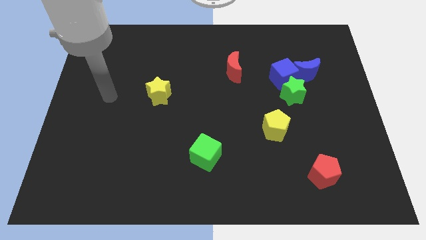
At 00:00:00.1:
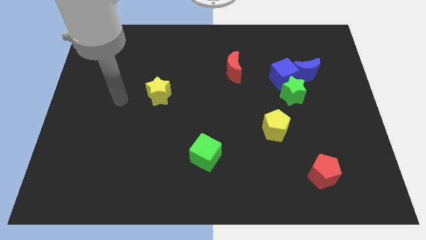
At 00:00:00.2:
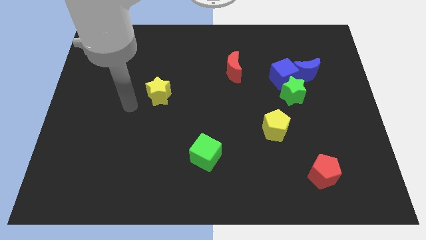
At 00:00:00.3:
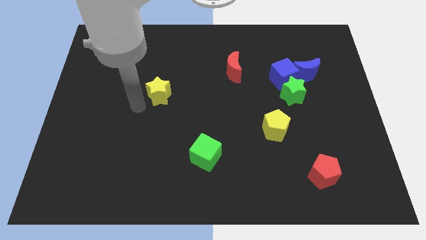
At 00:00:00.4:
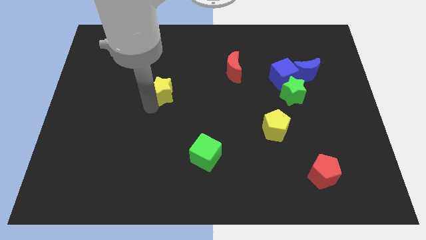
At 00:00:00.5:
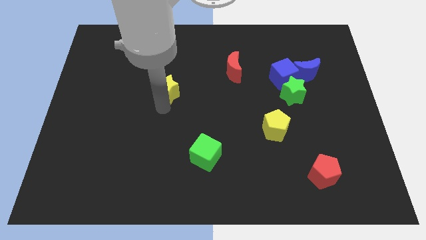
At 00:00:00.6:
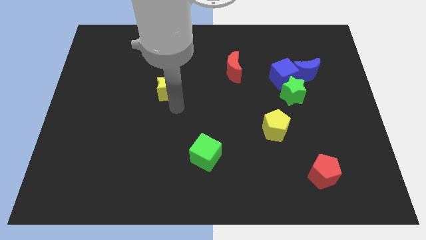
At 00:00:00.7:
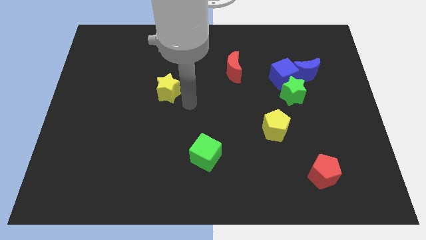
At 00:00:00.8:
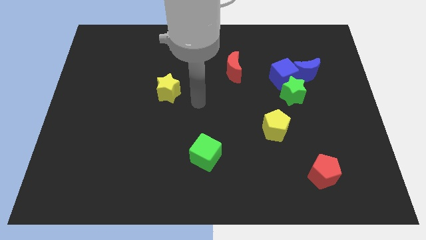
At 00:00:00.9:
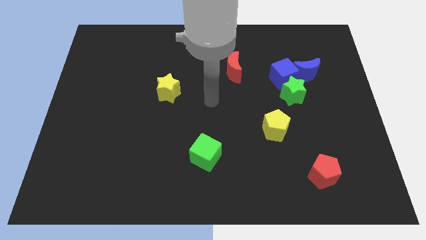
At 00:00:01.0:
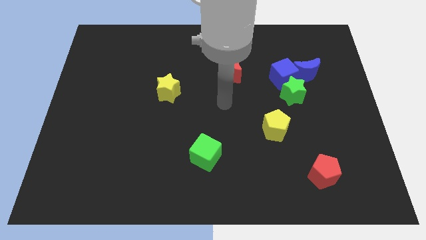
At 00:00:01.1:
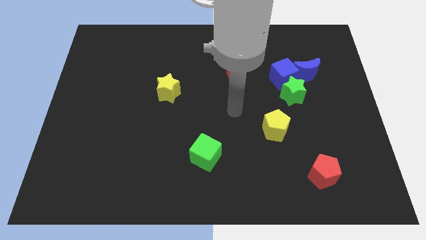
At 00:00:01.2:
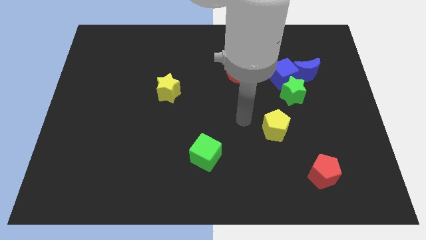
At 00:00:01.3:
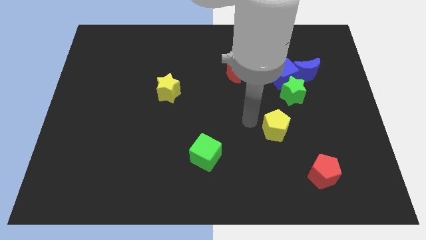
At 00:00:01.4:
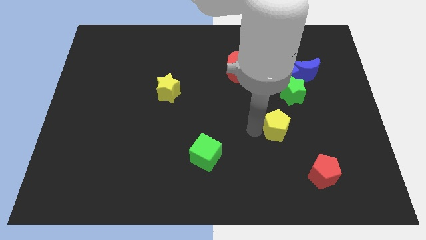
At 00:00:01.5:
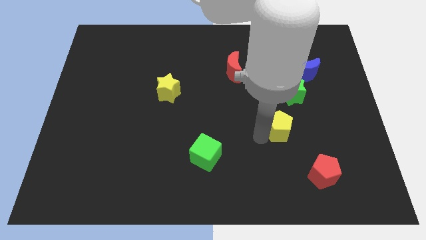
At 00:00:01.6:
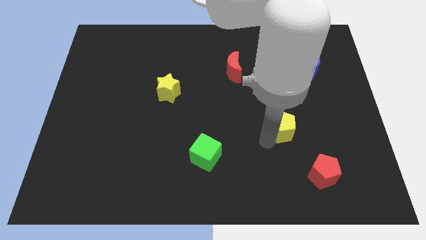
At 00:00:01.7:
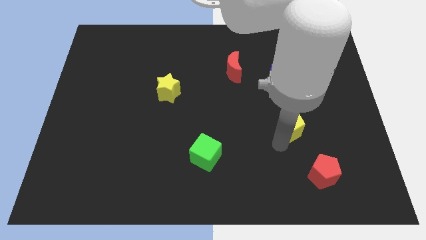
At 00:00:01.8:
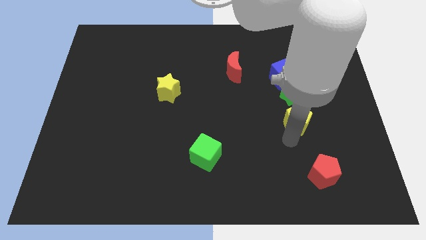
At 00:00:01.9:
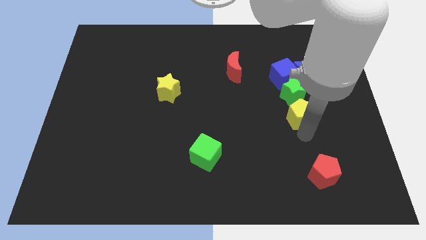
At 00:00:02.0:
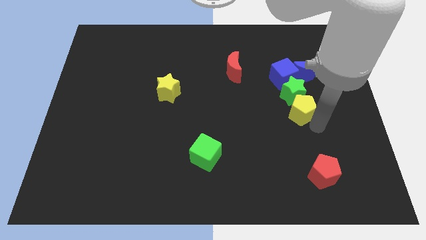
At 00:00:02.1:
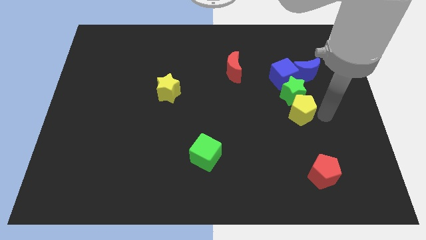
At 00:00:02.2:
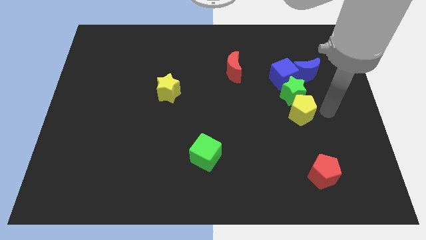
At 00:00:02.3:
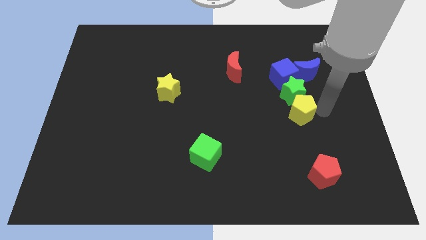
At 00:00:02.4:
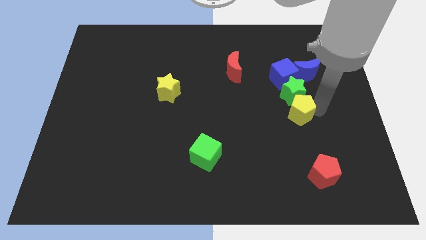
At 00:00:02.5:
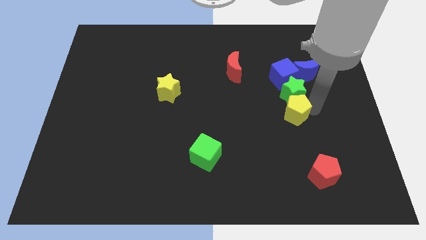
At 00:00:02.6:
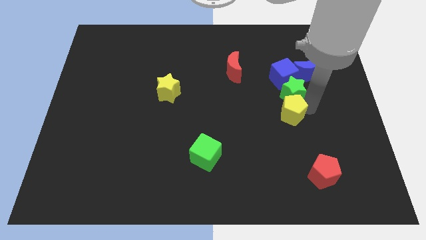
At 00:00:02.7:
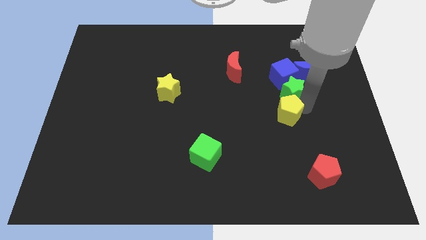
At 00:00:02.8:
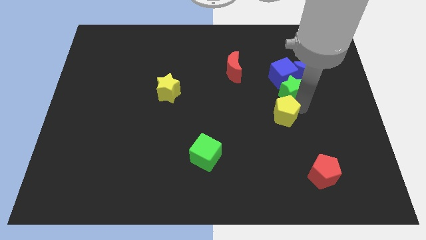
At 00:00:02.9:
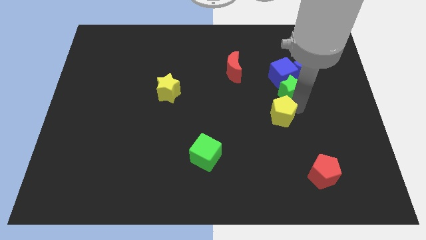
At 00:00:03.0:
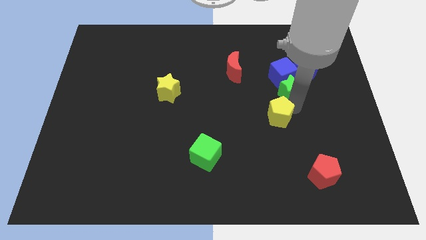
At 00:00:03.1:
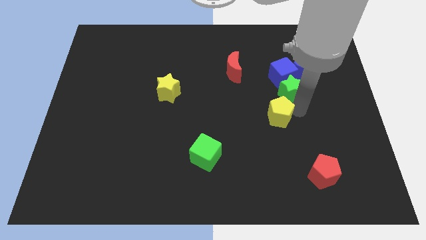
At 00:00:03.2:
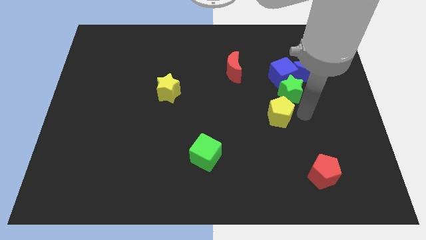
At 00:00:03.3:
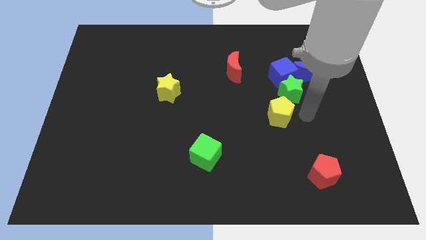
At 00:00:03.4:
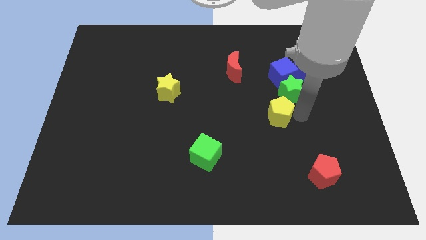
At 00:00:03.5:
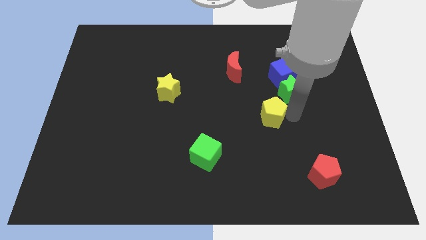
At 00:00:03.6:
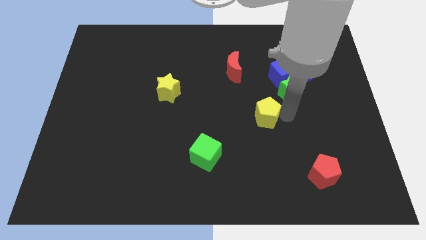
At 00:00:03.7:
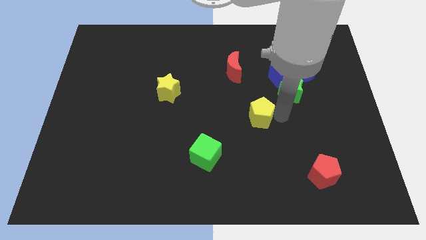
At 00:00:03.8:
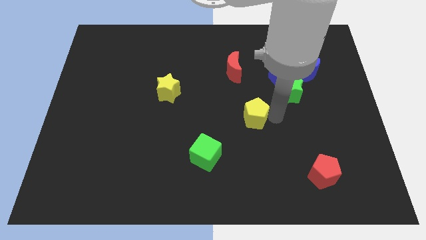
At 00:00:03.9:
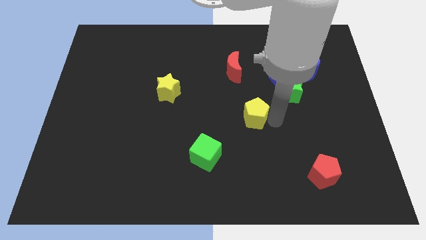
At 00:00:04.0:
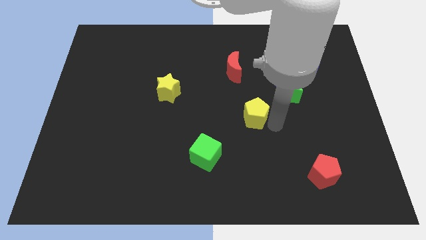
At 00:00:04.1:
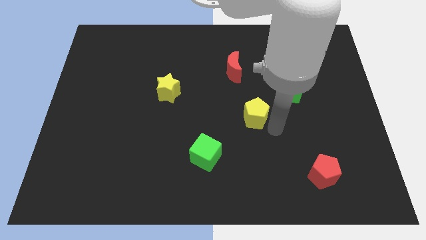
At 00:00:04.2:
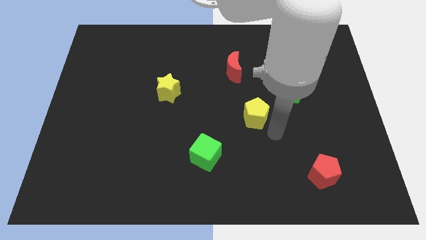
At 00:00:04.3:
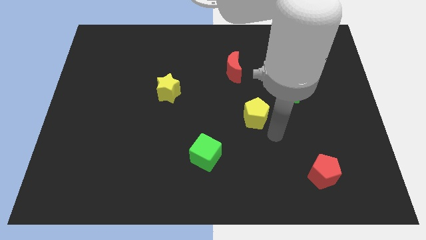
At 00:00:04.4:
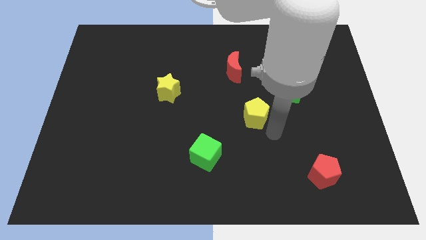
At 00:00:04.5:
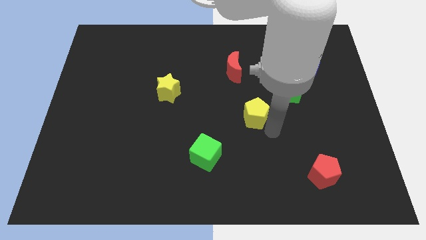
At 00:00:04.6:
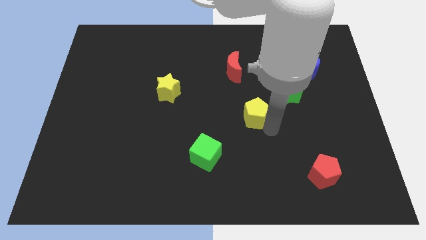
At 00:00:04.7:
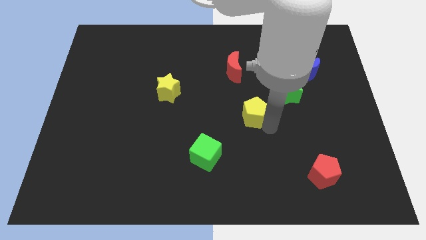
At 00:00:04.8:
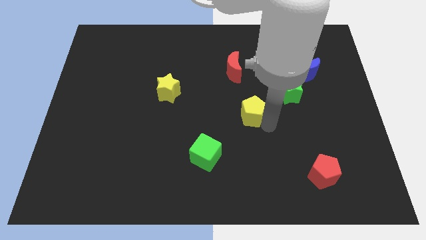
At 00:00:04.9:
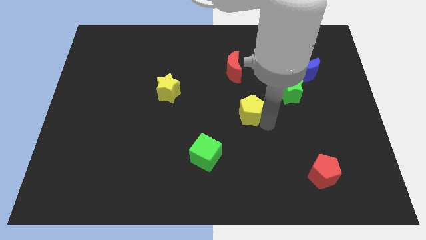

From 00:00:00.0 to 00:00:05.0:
push the yellow pentagon up and to the left diagonally somewhat

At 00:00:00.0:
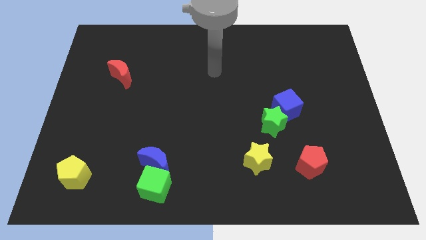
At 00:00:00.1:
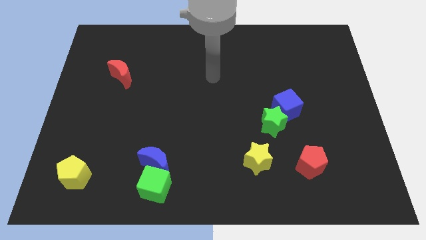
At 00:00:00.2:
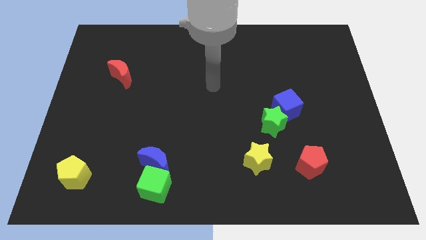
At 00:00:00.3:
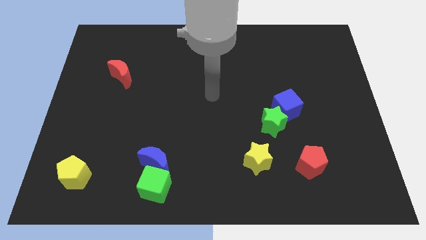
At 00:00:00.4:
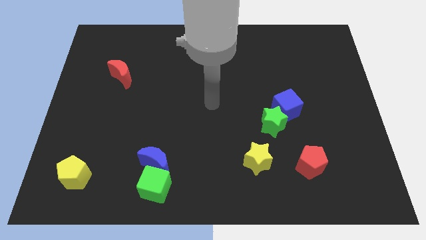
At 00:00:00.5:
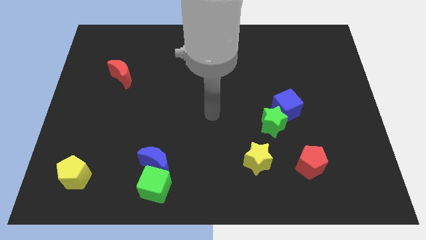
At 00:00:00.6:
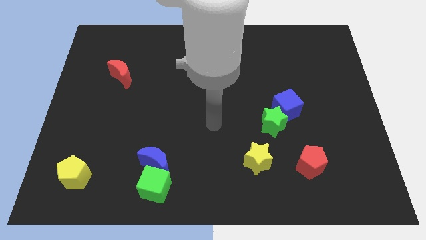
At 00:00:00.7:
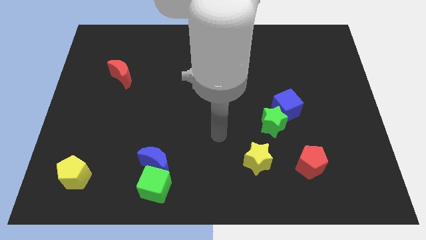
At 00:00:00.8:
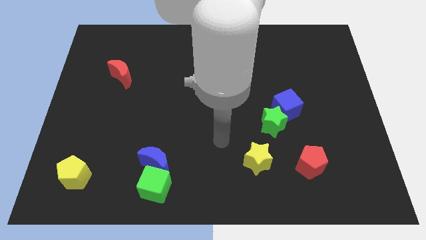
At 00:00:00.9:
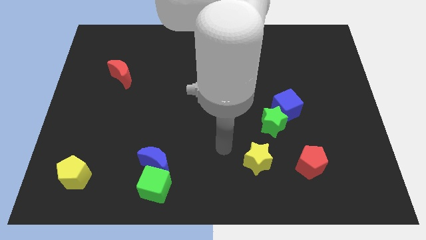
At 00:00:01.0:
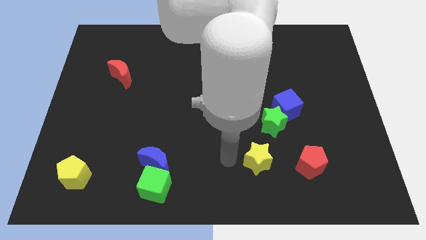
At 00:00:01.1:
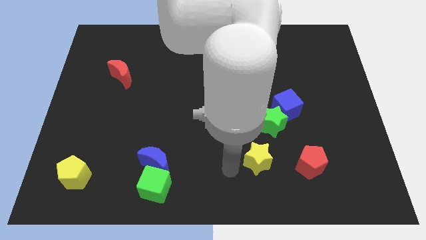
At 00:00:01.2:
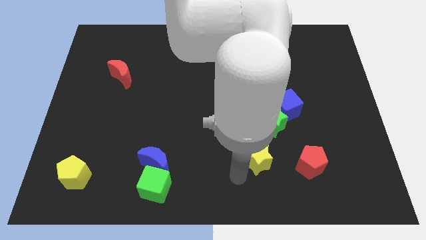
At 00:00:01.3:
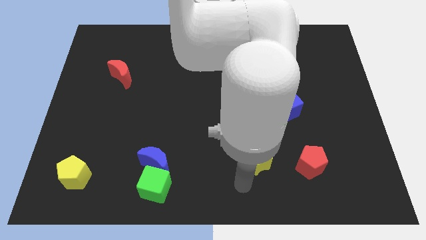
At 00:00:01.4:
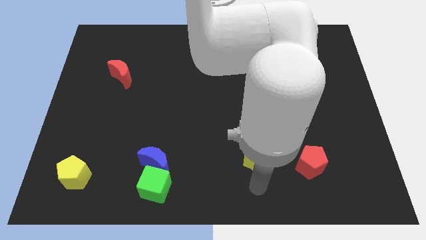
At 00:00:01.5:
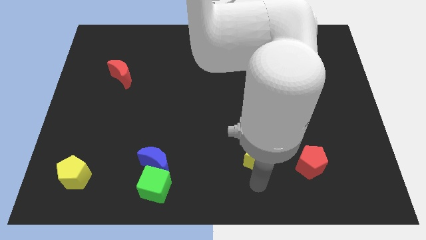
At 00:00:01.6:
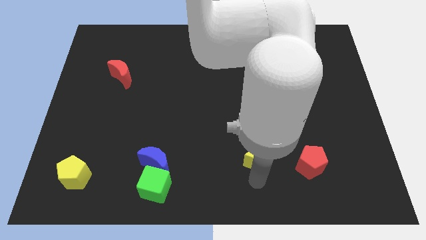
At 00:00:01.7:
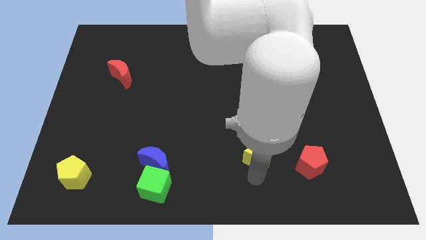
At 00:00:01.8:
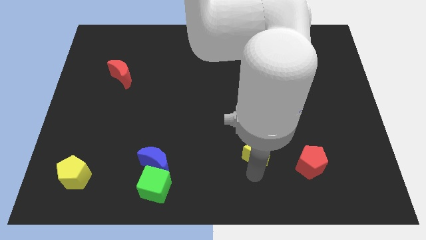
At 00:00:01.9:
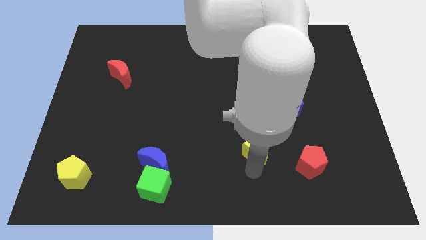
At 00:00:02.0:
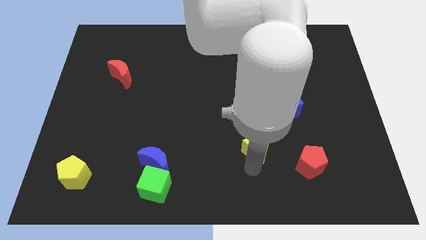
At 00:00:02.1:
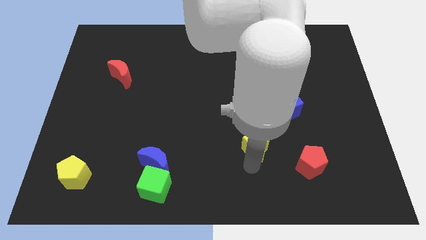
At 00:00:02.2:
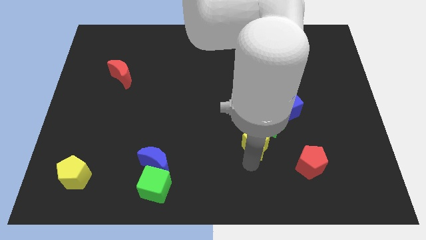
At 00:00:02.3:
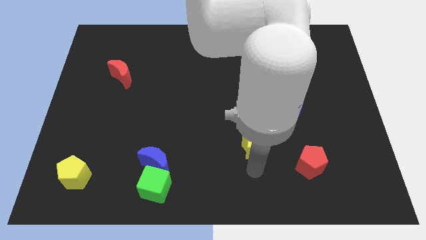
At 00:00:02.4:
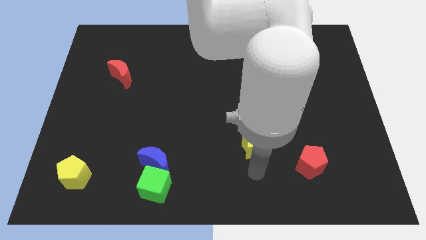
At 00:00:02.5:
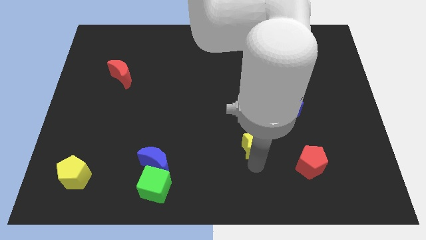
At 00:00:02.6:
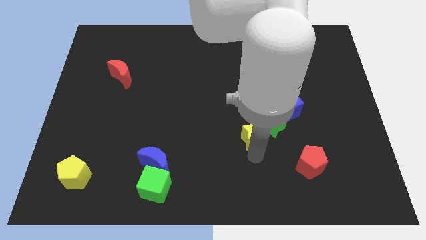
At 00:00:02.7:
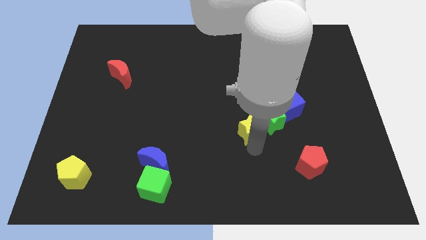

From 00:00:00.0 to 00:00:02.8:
slightly slide the yellow star up
